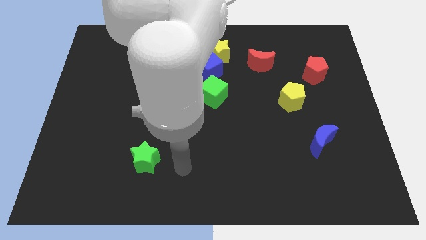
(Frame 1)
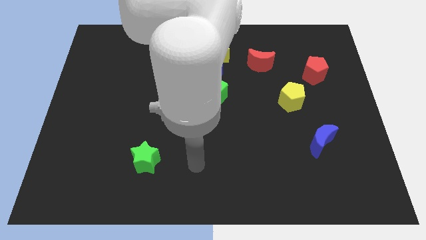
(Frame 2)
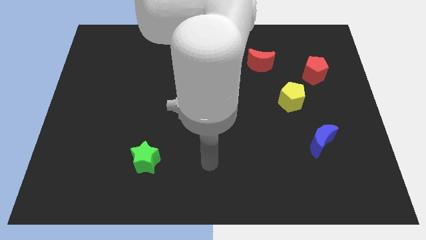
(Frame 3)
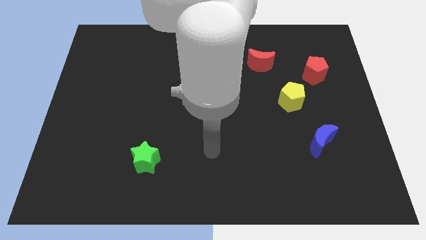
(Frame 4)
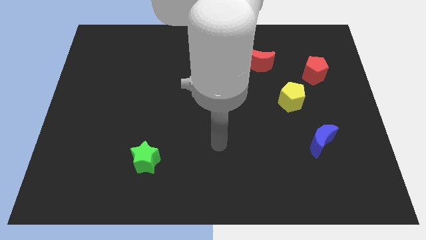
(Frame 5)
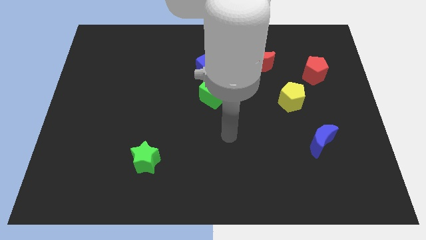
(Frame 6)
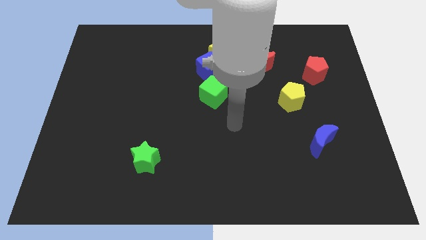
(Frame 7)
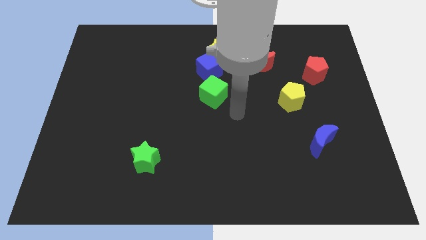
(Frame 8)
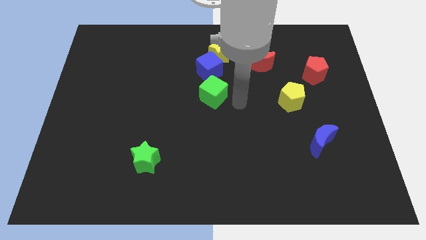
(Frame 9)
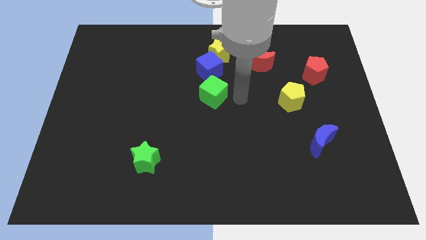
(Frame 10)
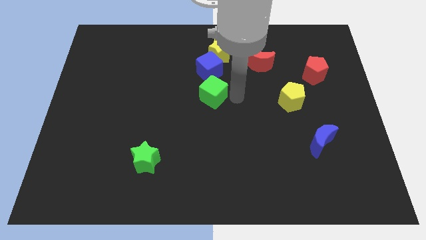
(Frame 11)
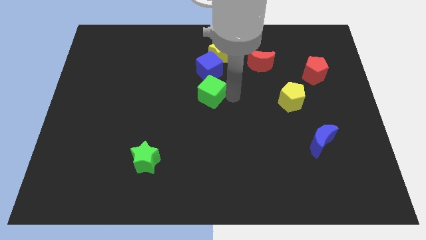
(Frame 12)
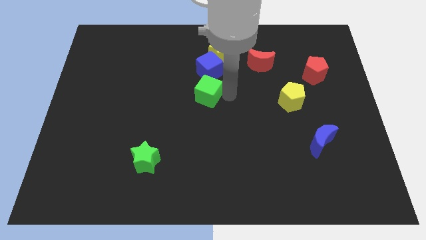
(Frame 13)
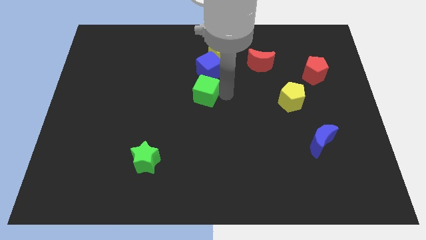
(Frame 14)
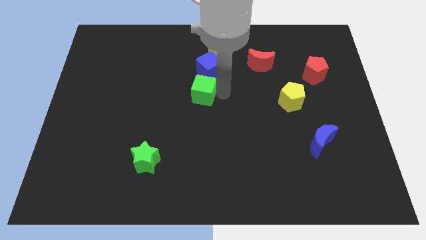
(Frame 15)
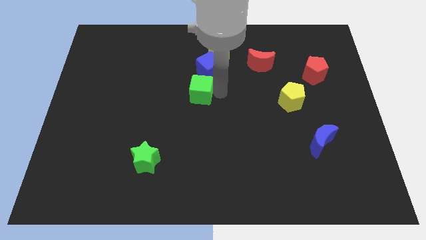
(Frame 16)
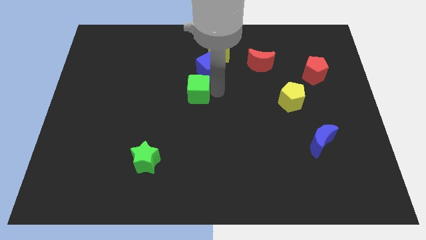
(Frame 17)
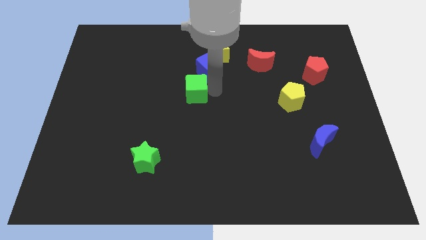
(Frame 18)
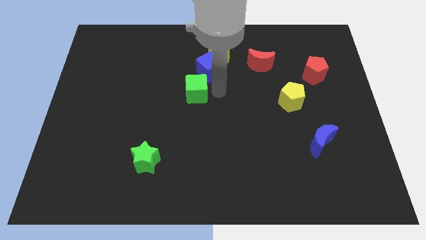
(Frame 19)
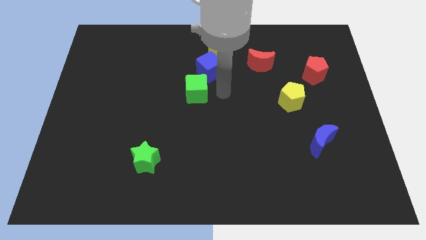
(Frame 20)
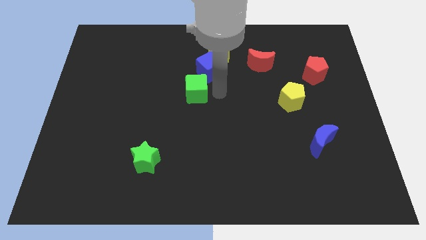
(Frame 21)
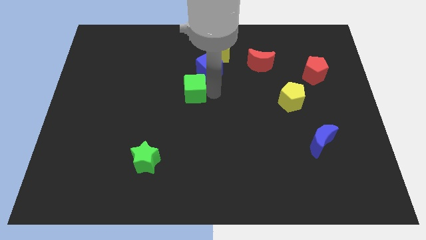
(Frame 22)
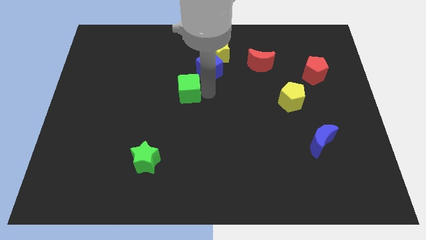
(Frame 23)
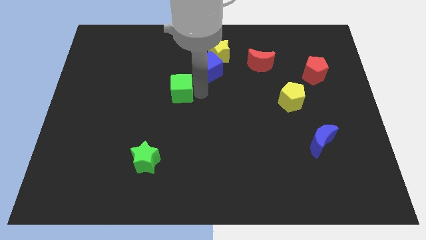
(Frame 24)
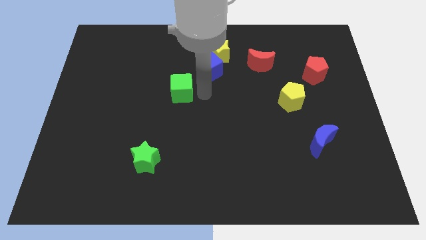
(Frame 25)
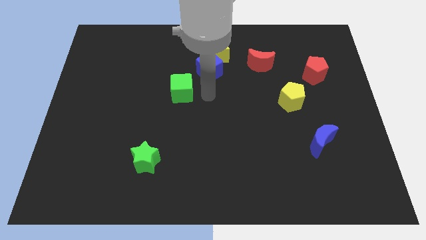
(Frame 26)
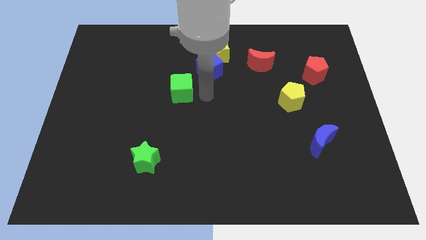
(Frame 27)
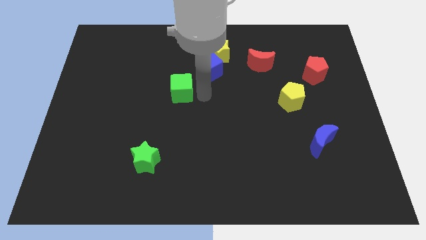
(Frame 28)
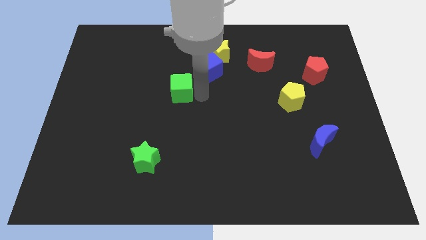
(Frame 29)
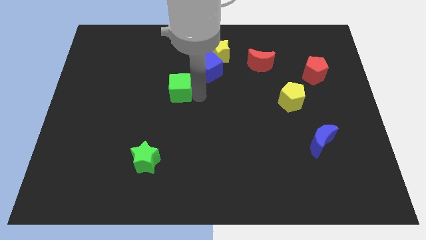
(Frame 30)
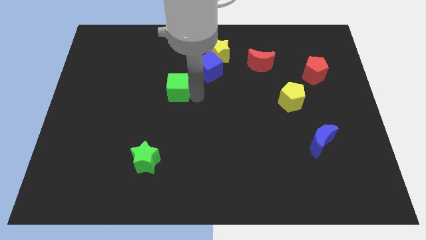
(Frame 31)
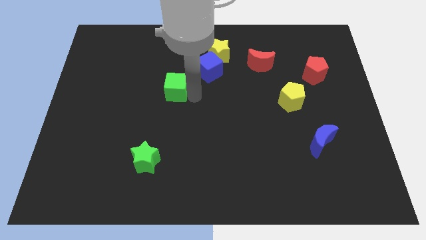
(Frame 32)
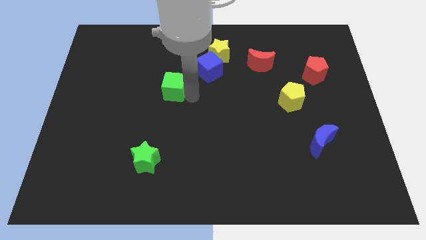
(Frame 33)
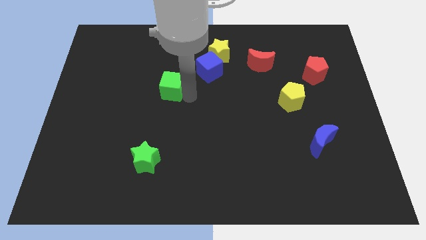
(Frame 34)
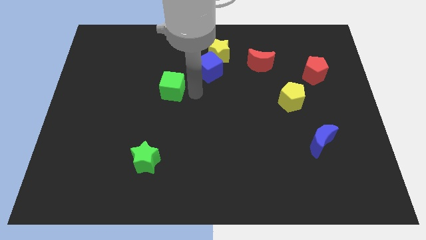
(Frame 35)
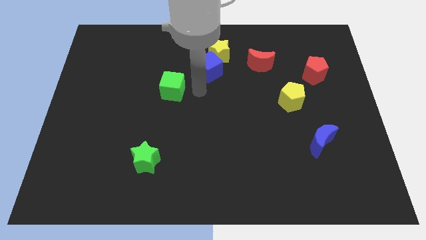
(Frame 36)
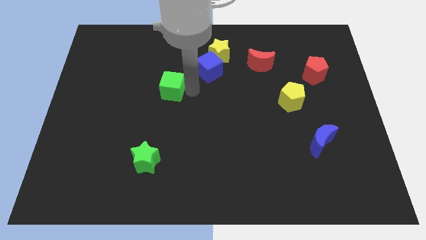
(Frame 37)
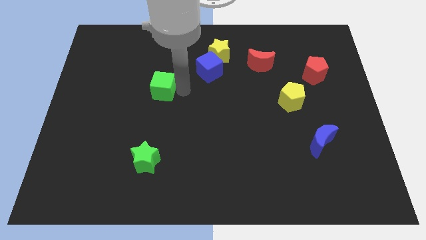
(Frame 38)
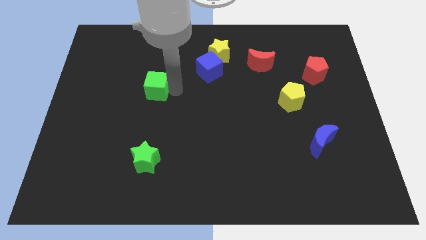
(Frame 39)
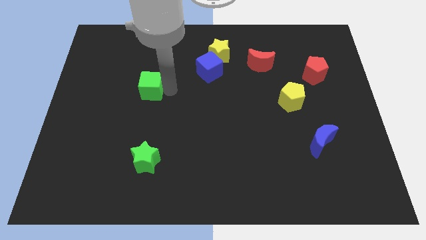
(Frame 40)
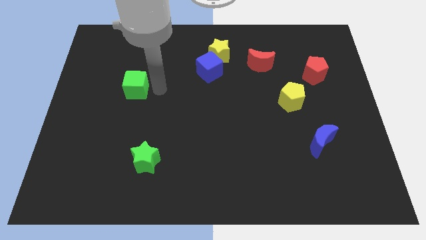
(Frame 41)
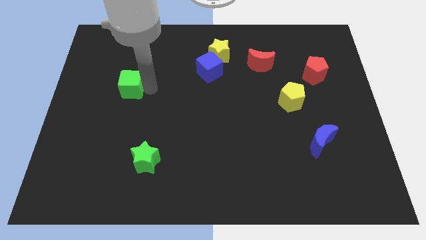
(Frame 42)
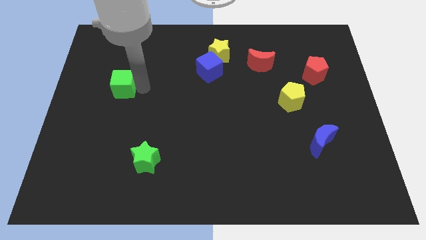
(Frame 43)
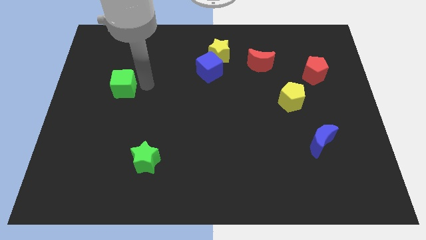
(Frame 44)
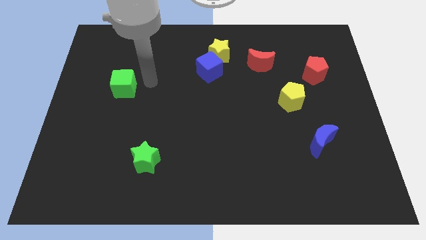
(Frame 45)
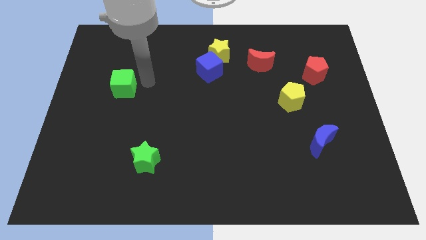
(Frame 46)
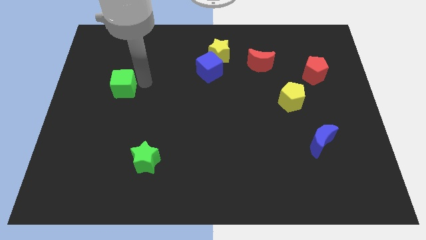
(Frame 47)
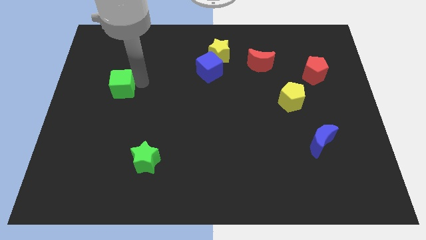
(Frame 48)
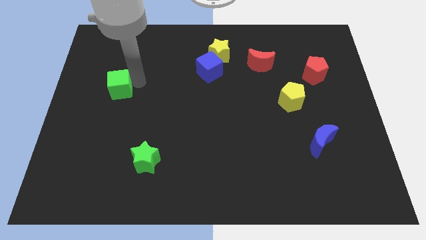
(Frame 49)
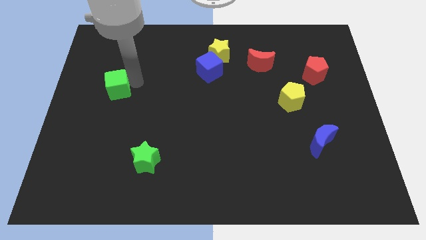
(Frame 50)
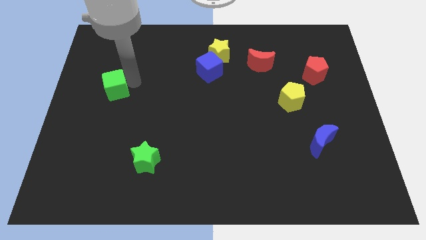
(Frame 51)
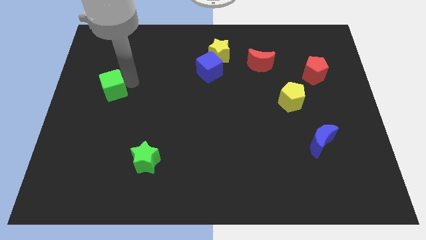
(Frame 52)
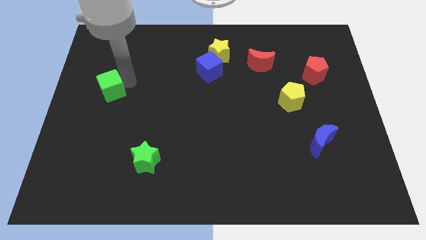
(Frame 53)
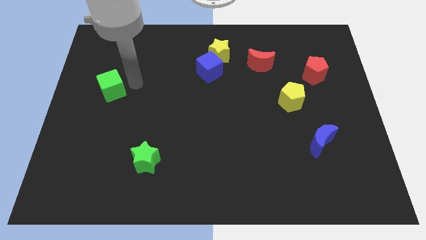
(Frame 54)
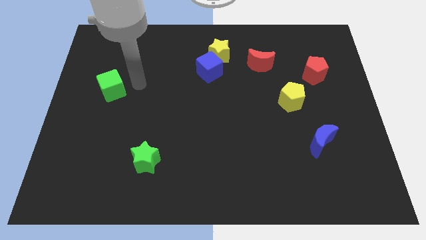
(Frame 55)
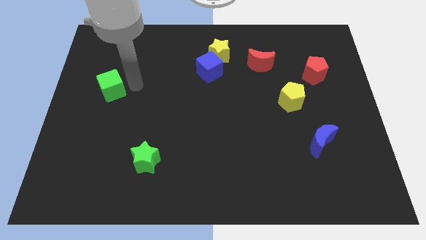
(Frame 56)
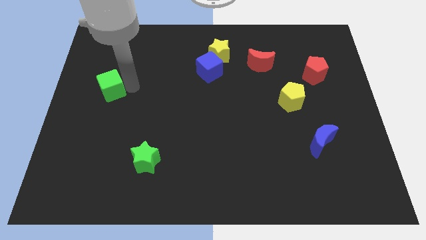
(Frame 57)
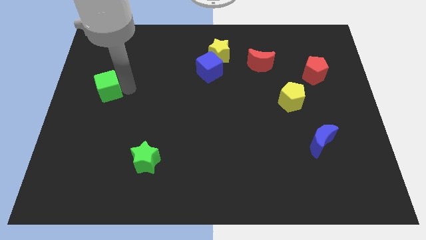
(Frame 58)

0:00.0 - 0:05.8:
slide the green cube to the left side of the board

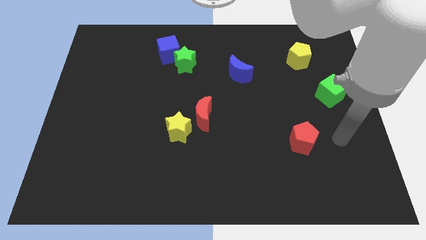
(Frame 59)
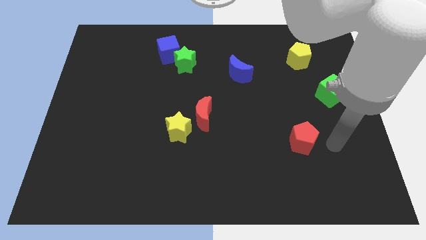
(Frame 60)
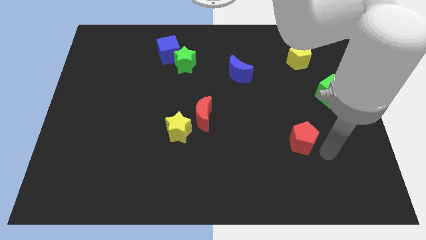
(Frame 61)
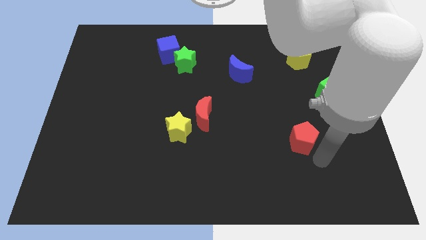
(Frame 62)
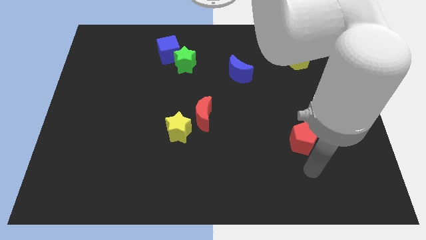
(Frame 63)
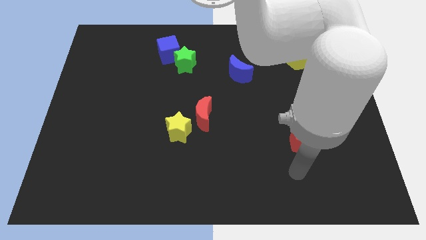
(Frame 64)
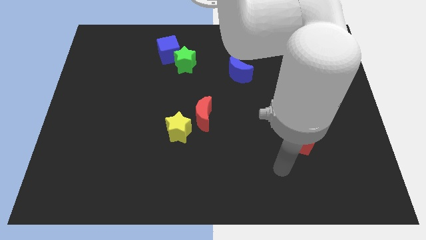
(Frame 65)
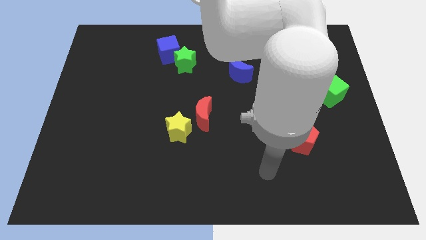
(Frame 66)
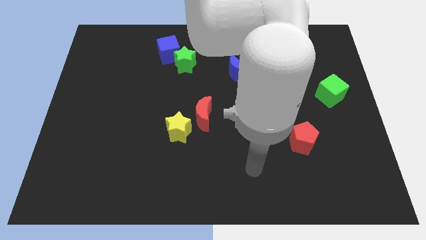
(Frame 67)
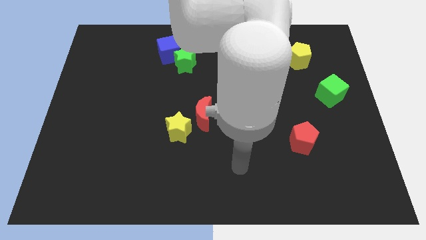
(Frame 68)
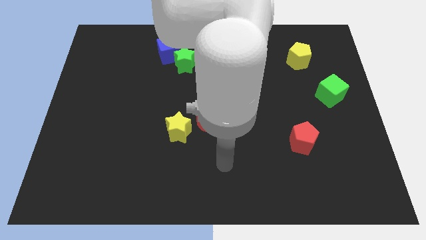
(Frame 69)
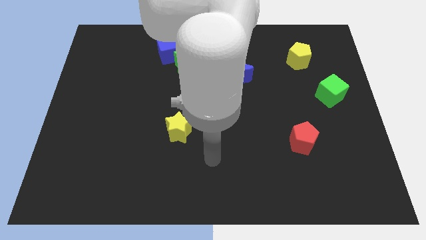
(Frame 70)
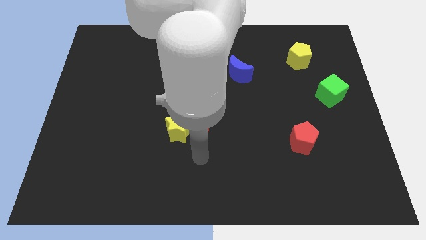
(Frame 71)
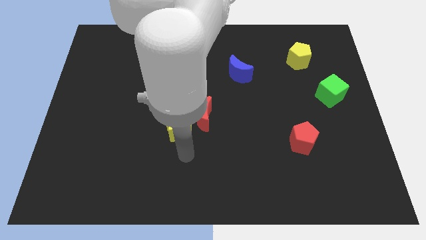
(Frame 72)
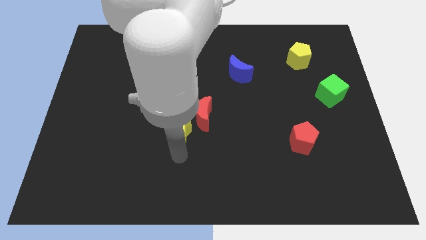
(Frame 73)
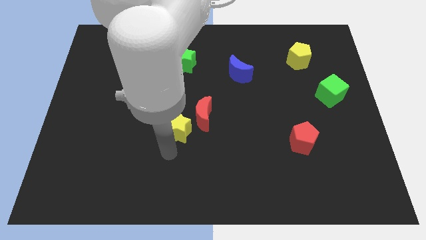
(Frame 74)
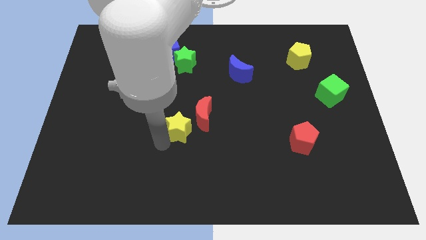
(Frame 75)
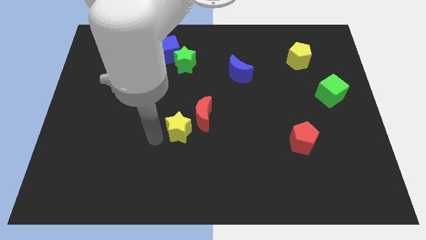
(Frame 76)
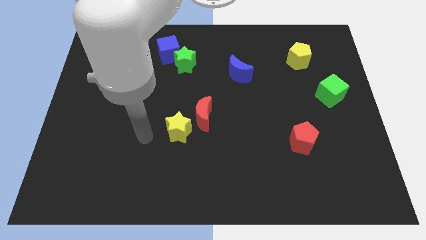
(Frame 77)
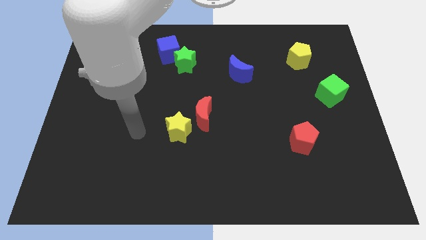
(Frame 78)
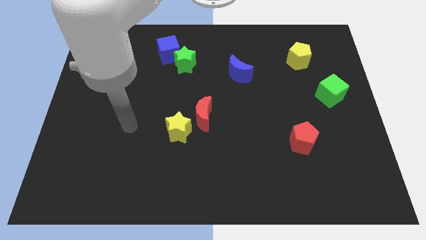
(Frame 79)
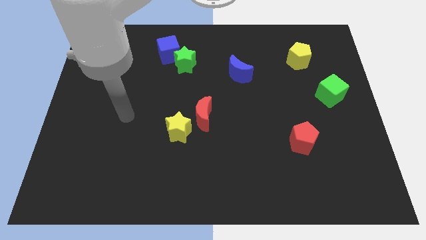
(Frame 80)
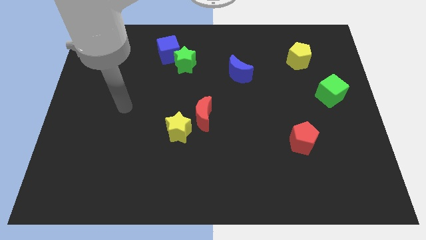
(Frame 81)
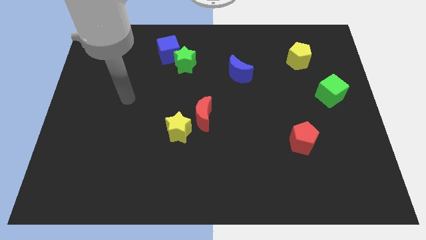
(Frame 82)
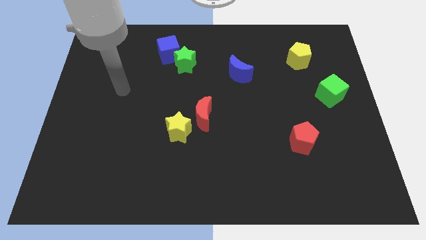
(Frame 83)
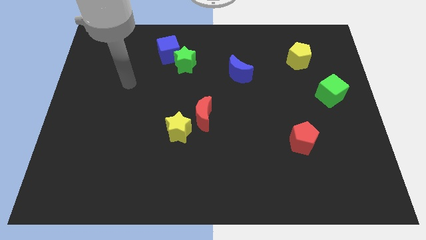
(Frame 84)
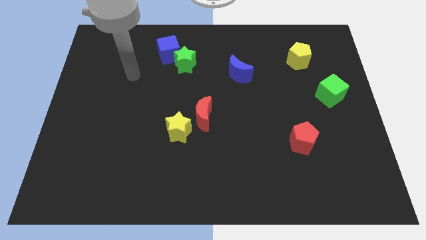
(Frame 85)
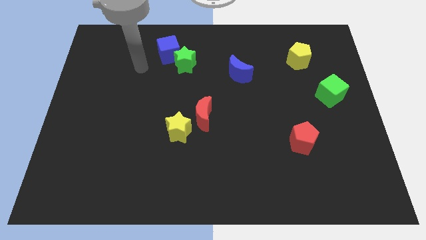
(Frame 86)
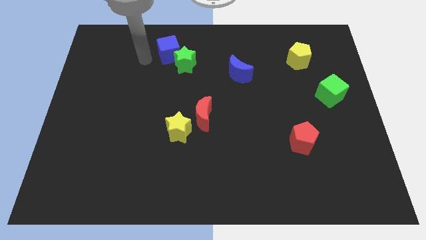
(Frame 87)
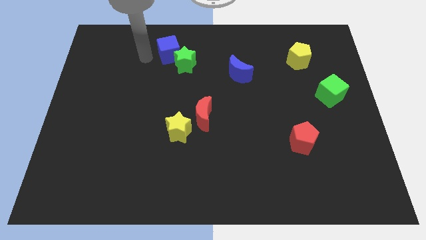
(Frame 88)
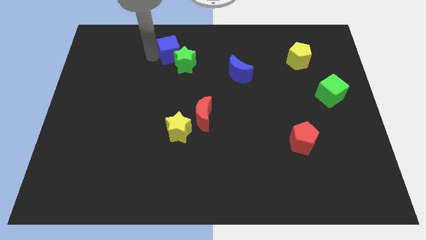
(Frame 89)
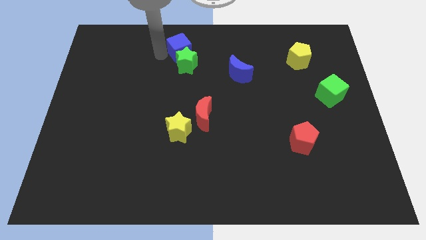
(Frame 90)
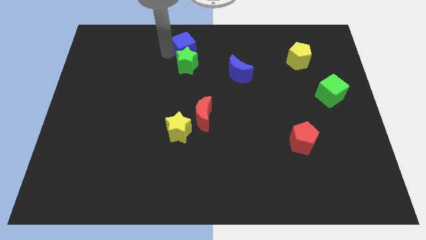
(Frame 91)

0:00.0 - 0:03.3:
put the blue cube to the top side
